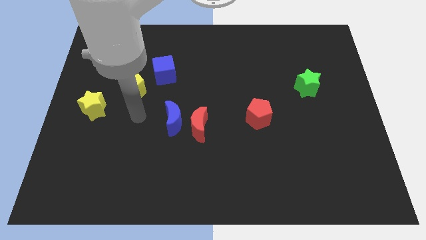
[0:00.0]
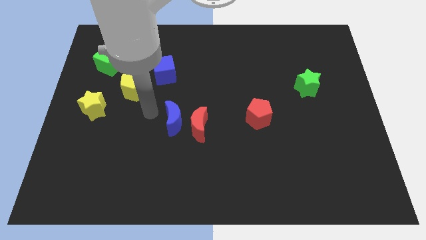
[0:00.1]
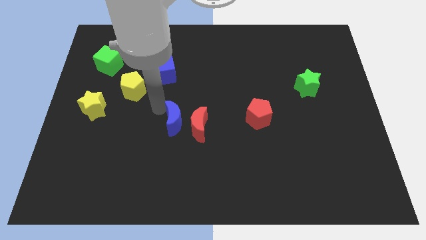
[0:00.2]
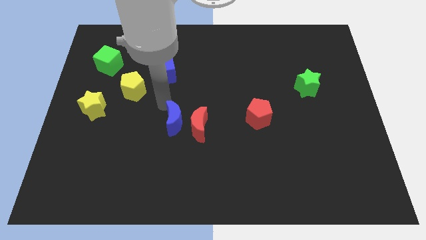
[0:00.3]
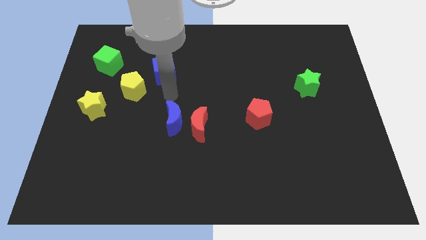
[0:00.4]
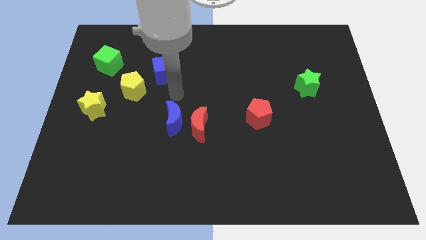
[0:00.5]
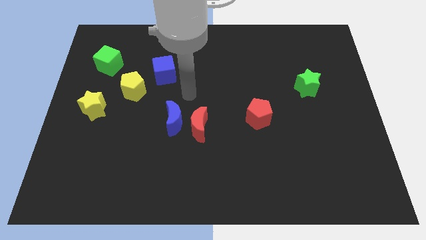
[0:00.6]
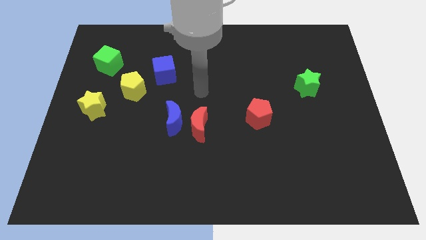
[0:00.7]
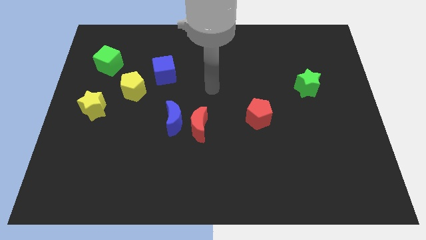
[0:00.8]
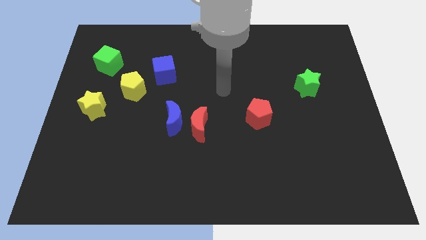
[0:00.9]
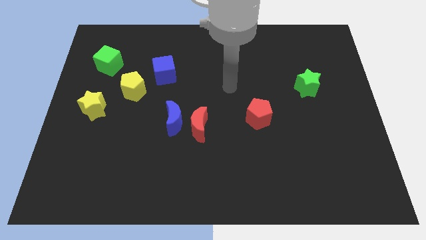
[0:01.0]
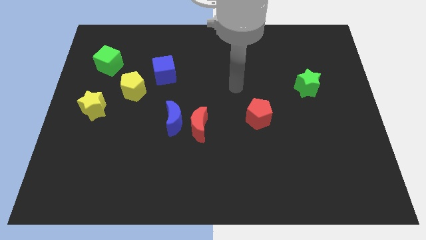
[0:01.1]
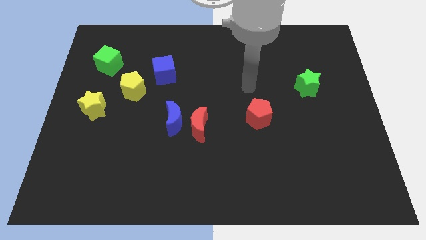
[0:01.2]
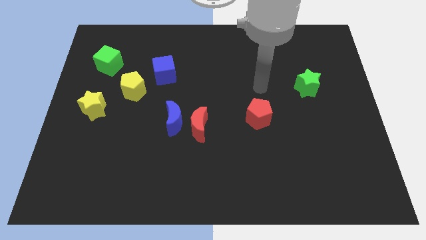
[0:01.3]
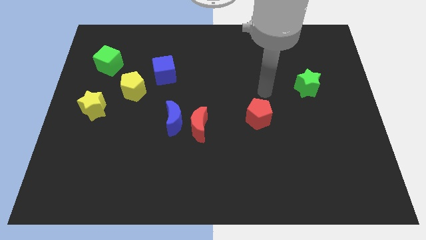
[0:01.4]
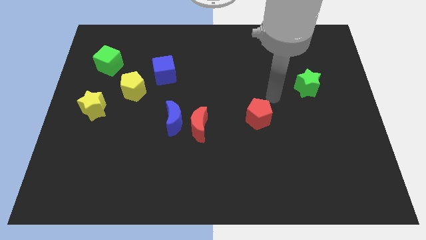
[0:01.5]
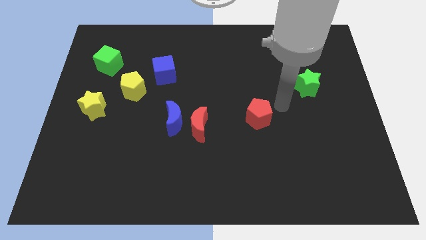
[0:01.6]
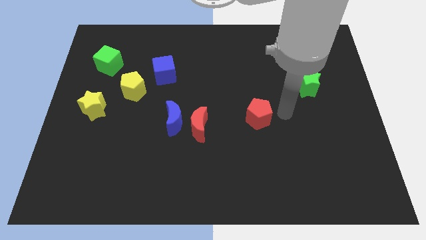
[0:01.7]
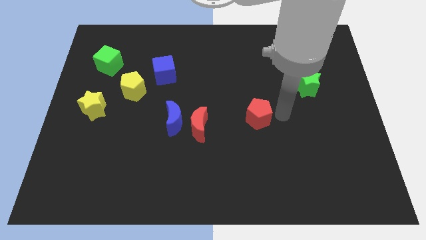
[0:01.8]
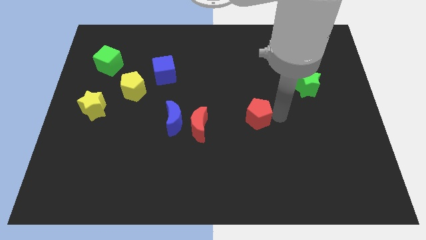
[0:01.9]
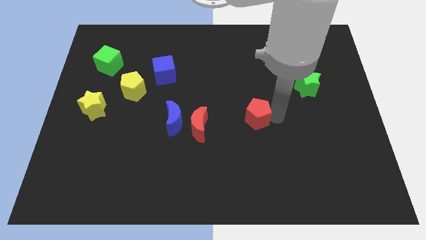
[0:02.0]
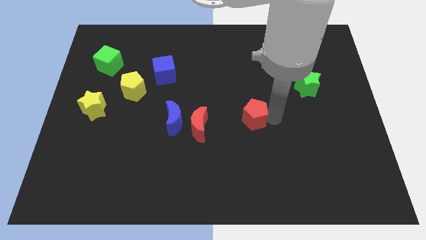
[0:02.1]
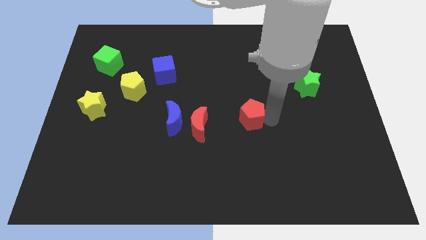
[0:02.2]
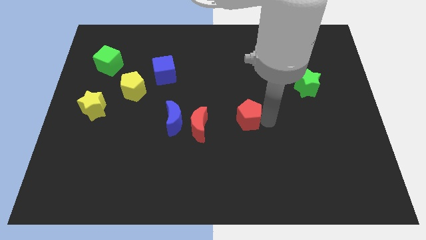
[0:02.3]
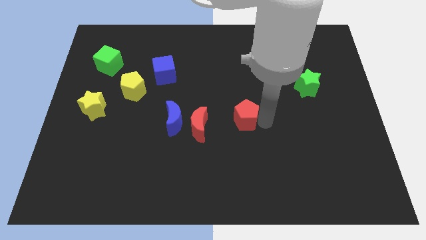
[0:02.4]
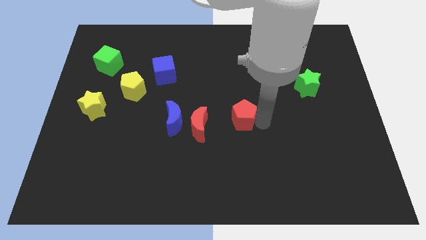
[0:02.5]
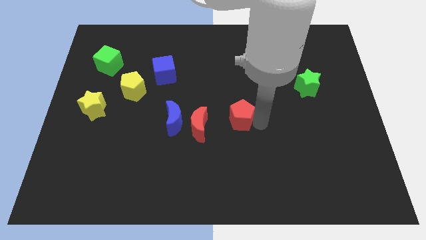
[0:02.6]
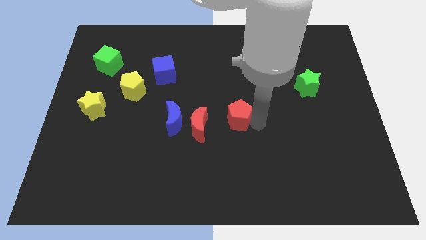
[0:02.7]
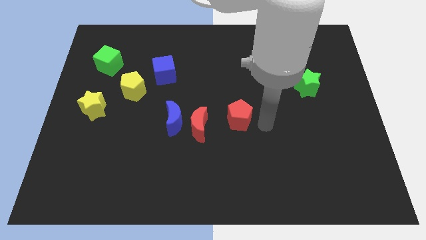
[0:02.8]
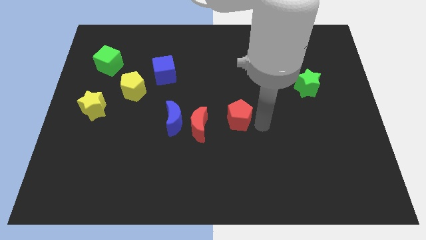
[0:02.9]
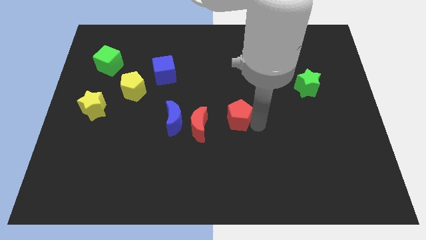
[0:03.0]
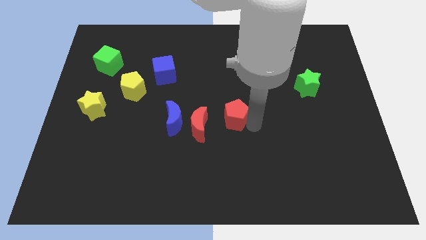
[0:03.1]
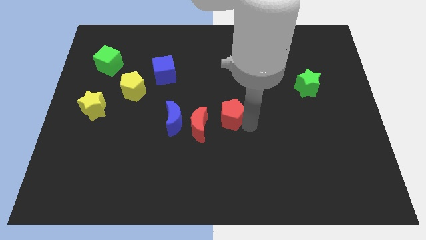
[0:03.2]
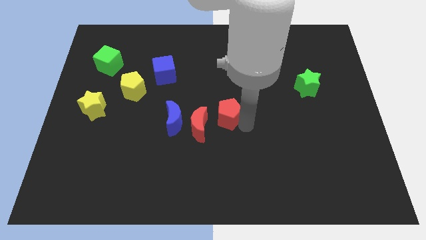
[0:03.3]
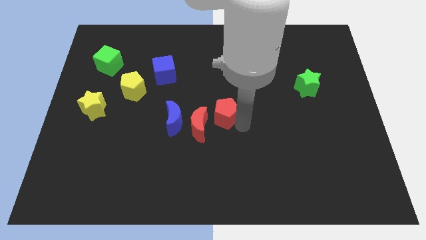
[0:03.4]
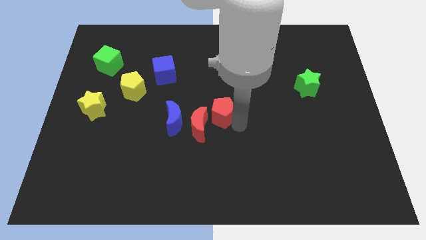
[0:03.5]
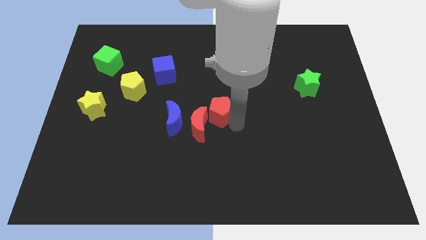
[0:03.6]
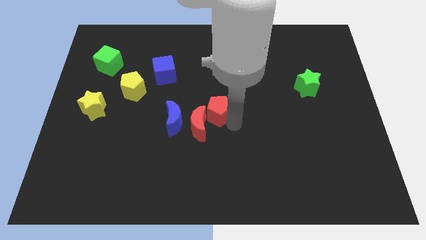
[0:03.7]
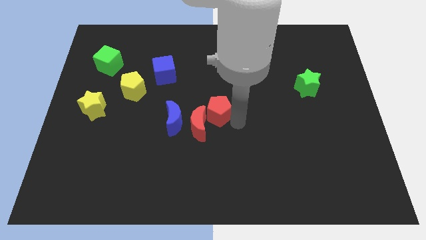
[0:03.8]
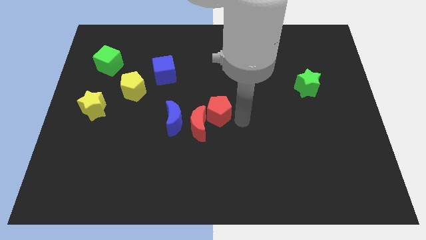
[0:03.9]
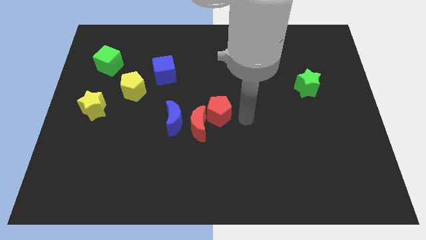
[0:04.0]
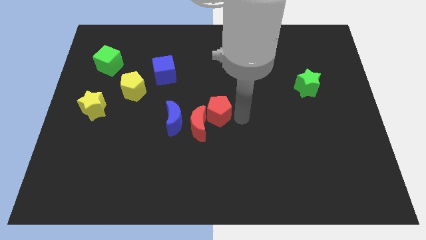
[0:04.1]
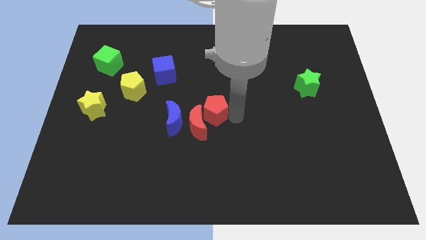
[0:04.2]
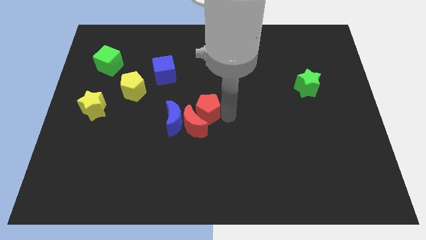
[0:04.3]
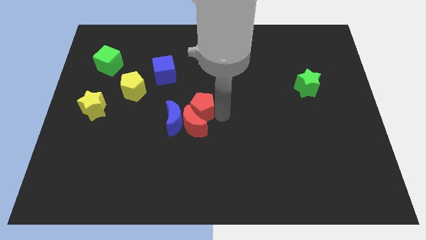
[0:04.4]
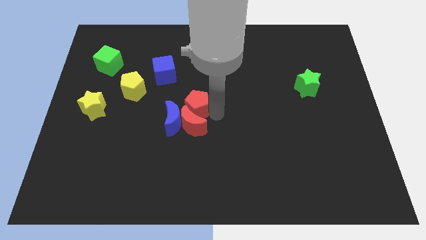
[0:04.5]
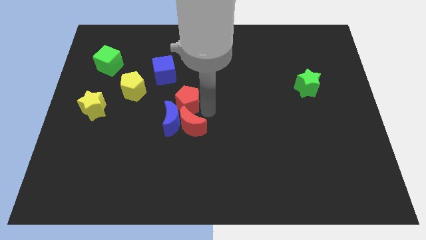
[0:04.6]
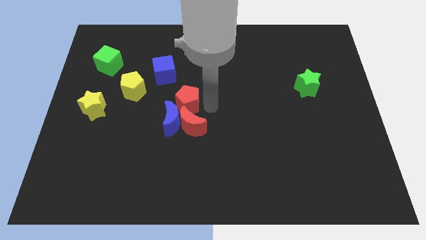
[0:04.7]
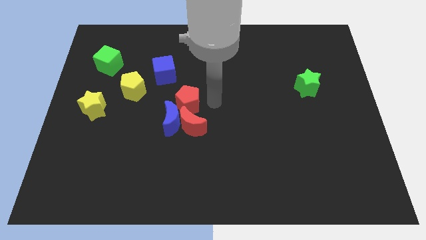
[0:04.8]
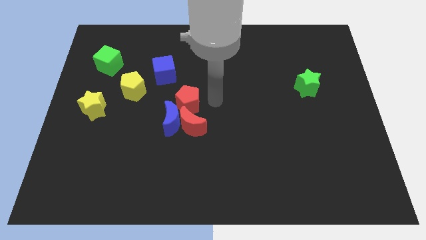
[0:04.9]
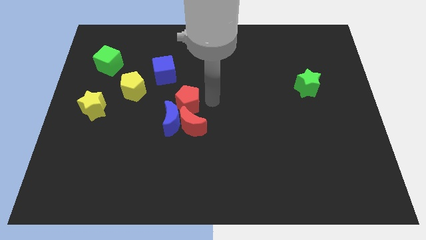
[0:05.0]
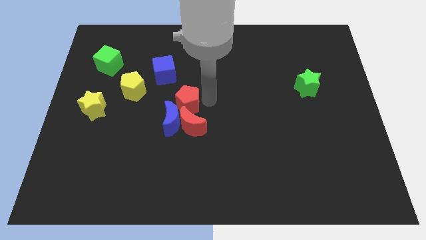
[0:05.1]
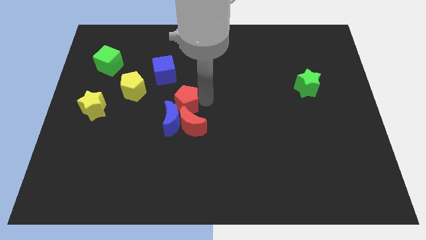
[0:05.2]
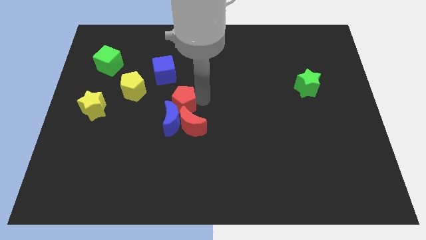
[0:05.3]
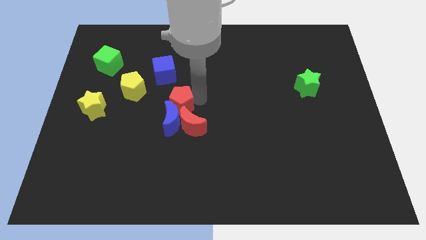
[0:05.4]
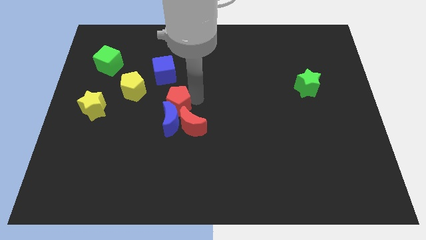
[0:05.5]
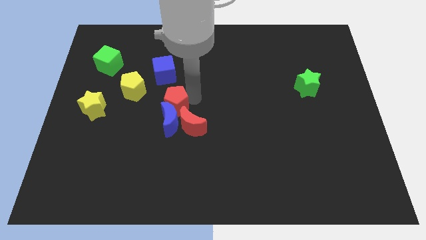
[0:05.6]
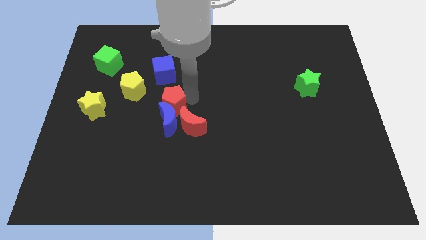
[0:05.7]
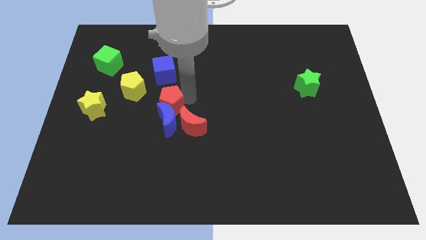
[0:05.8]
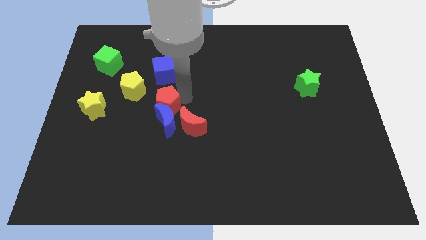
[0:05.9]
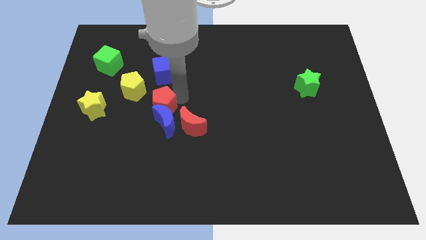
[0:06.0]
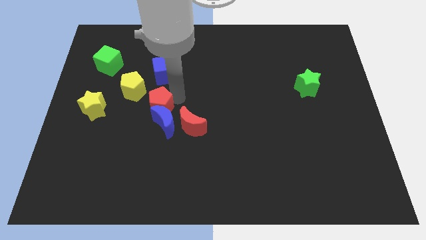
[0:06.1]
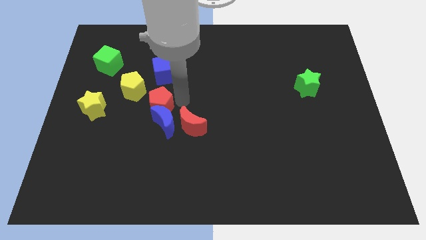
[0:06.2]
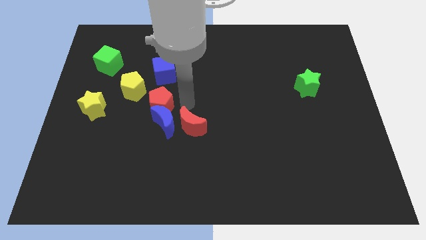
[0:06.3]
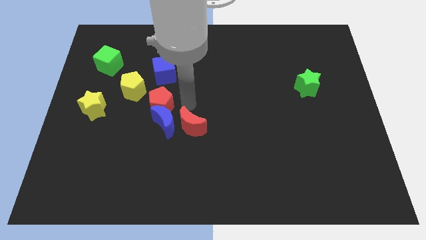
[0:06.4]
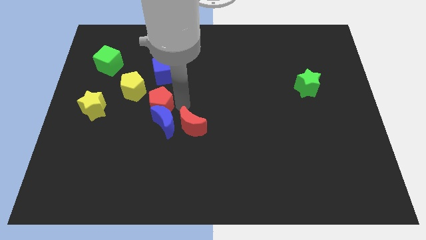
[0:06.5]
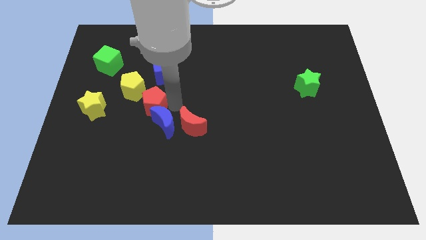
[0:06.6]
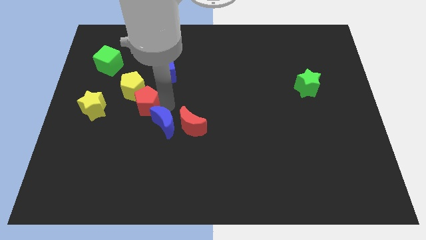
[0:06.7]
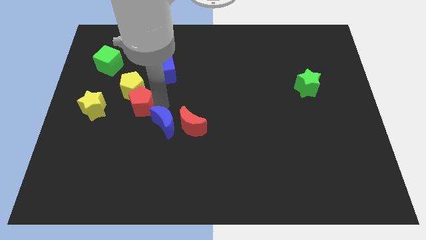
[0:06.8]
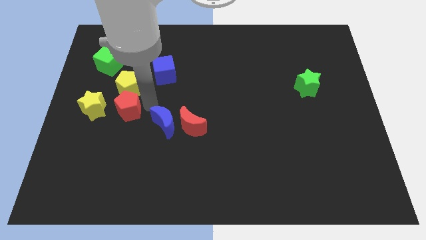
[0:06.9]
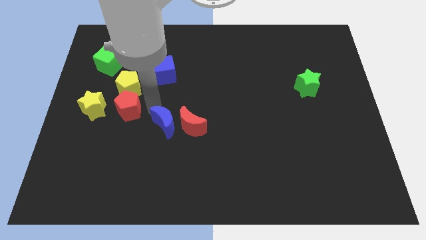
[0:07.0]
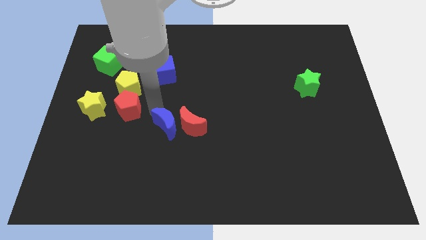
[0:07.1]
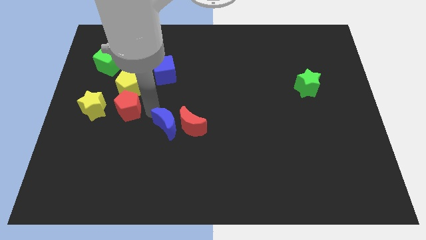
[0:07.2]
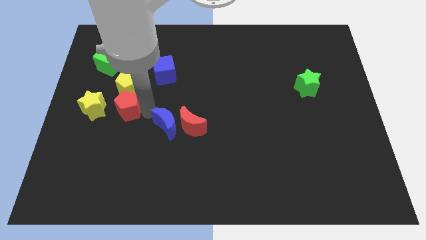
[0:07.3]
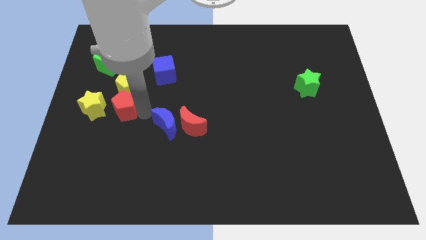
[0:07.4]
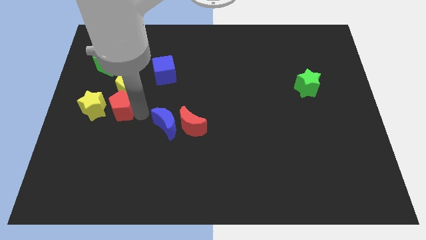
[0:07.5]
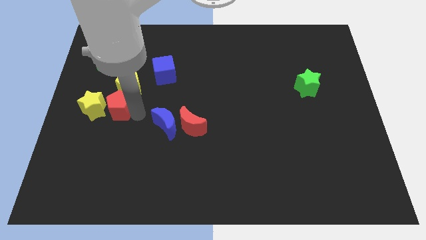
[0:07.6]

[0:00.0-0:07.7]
push the red pentagon next to the yellow star
